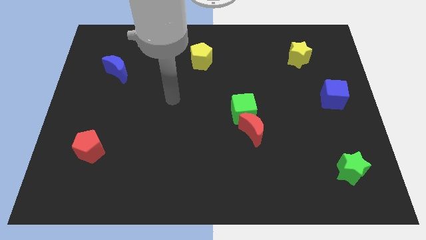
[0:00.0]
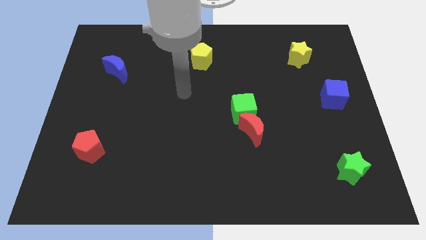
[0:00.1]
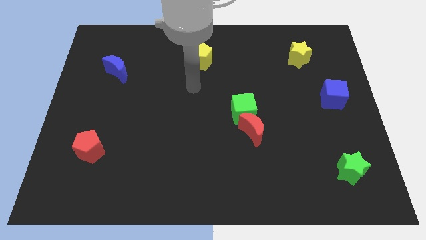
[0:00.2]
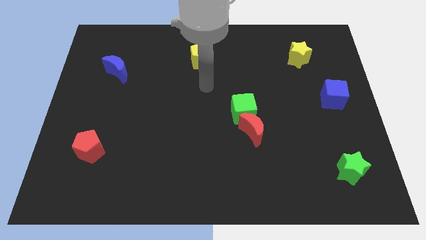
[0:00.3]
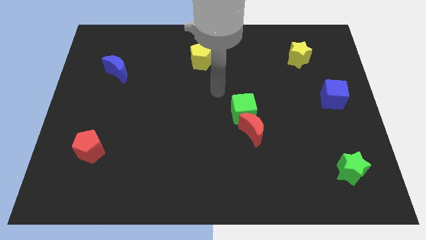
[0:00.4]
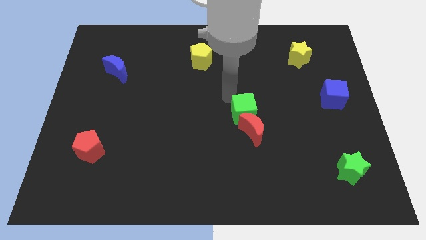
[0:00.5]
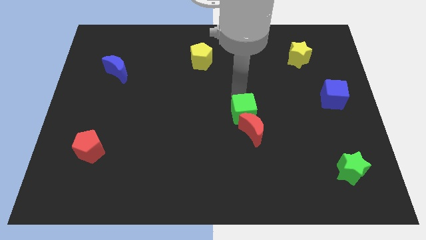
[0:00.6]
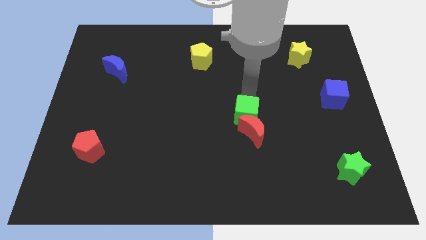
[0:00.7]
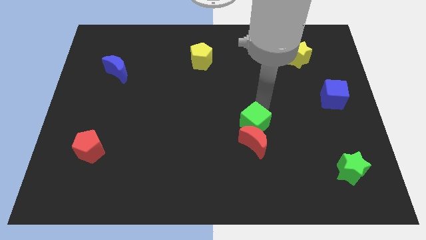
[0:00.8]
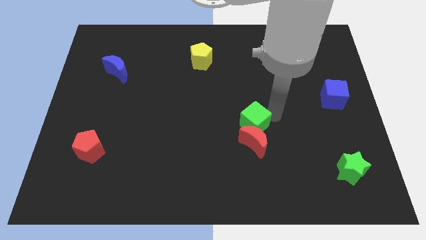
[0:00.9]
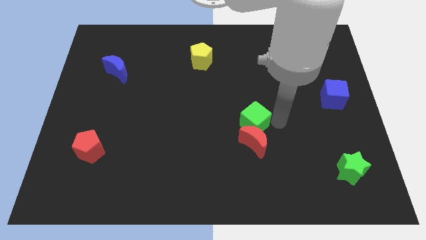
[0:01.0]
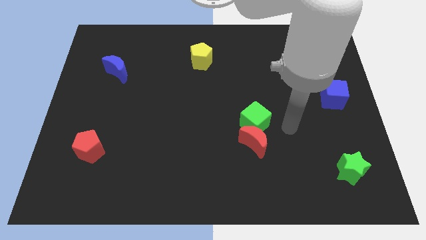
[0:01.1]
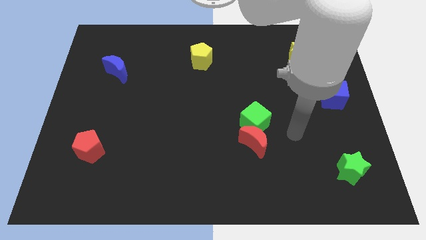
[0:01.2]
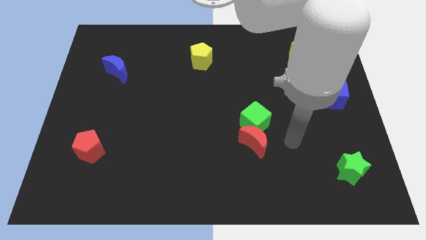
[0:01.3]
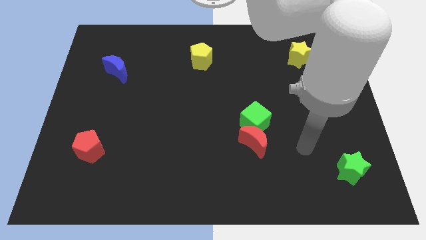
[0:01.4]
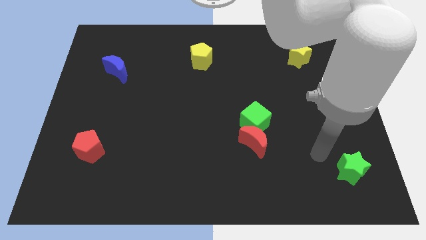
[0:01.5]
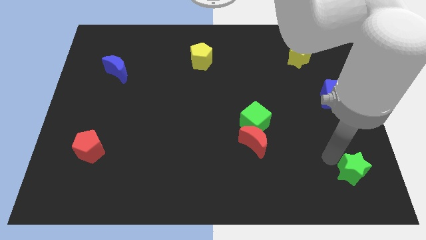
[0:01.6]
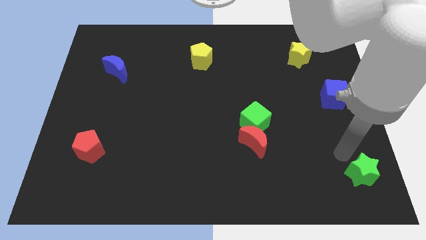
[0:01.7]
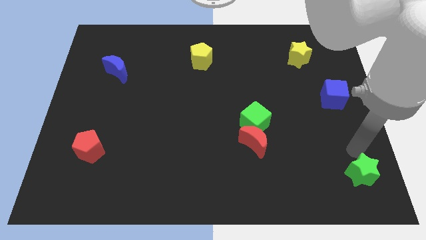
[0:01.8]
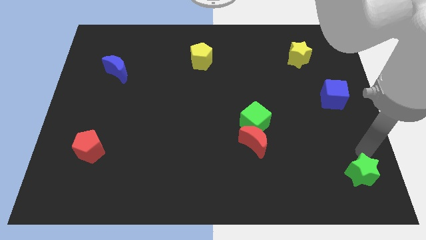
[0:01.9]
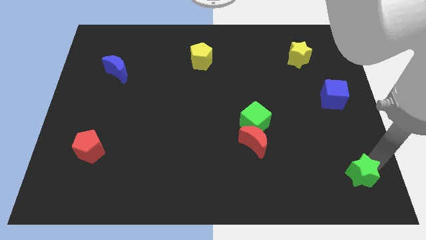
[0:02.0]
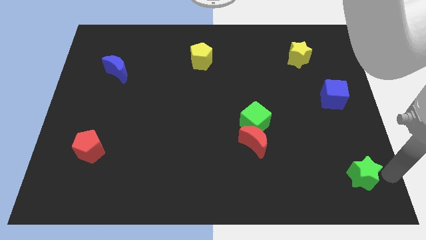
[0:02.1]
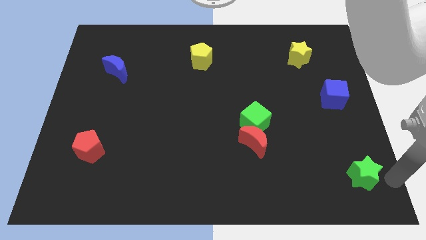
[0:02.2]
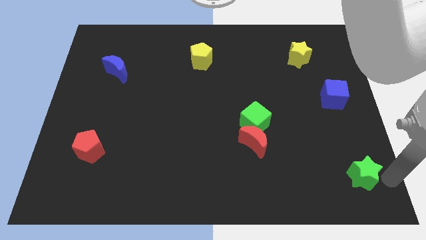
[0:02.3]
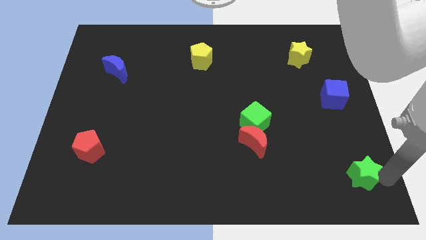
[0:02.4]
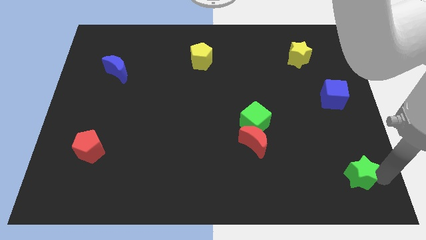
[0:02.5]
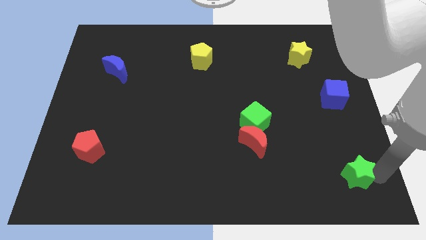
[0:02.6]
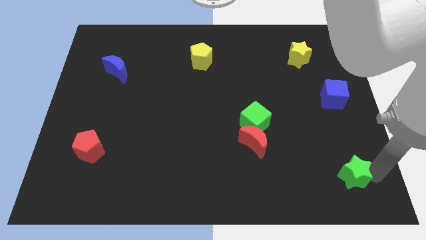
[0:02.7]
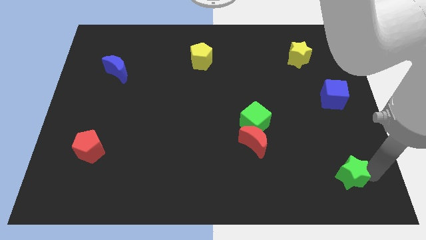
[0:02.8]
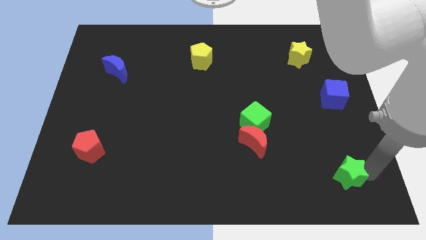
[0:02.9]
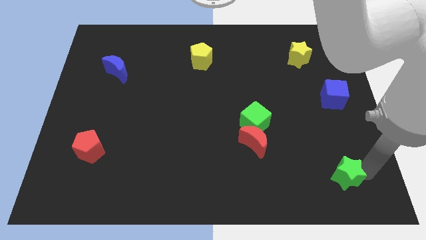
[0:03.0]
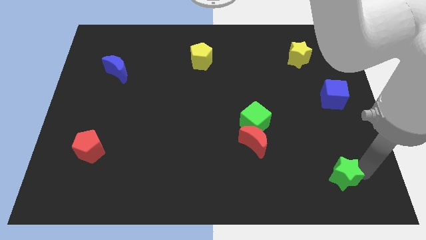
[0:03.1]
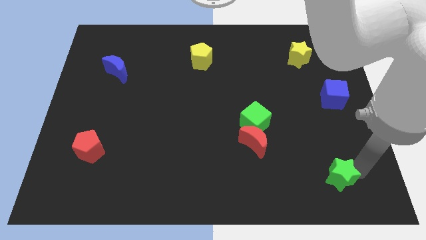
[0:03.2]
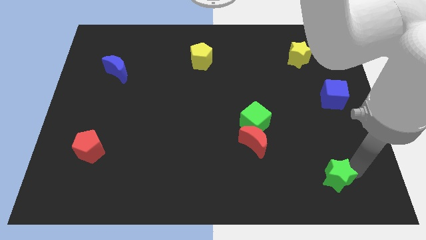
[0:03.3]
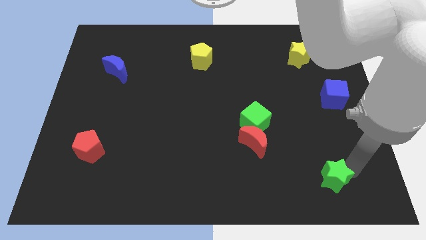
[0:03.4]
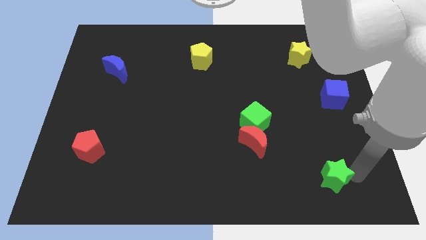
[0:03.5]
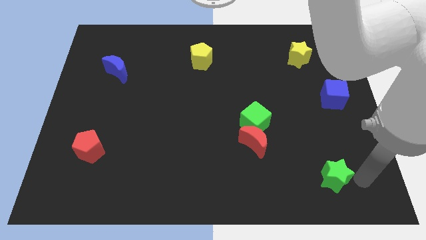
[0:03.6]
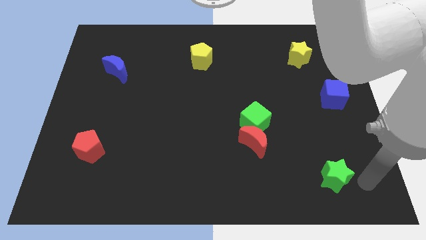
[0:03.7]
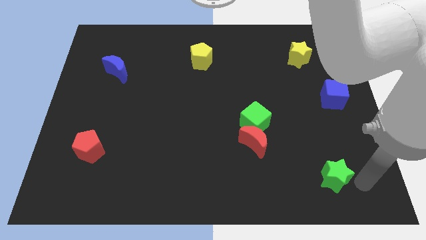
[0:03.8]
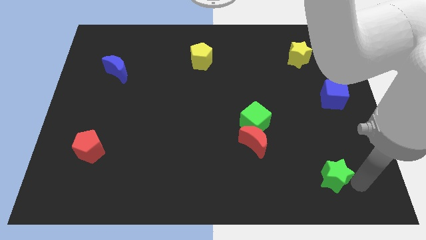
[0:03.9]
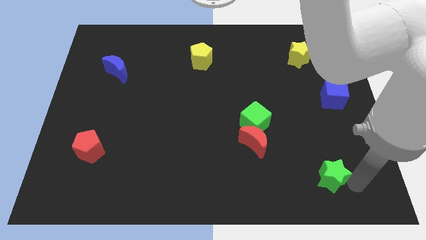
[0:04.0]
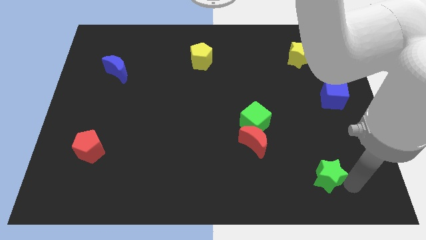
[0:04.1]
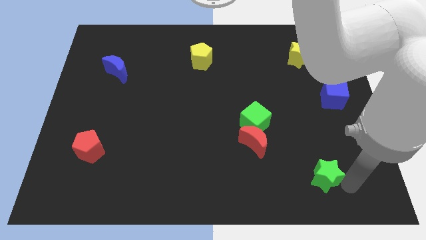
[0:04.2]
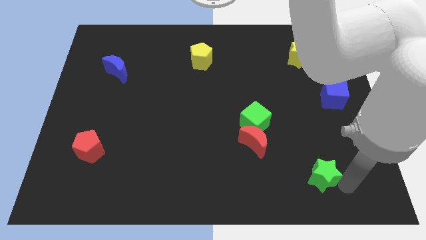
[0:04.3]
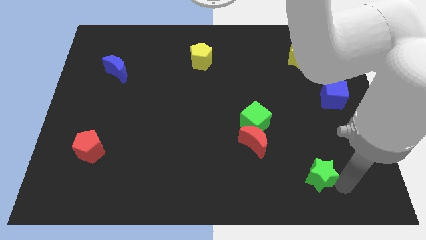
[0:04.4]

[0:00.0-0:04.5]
push the green star slightly left

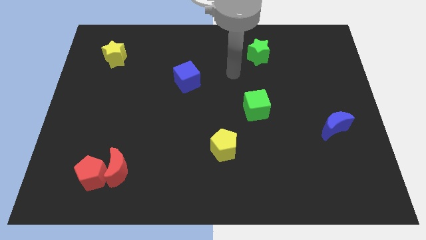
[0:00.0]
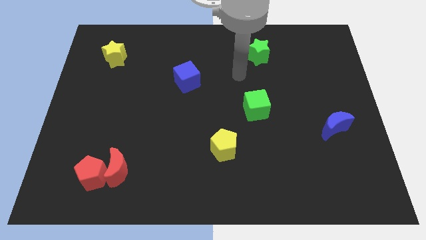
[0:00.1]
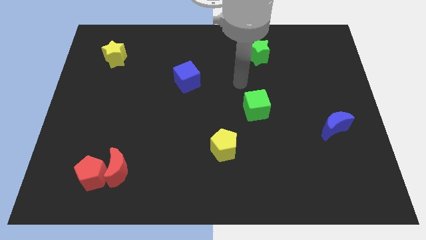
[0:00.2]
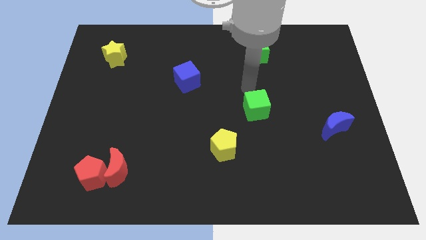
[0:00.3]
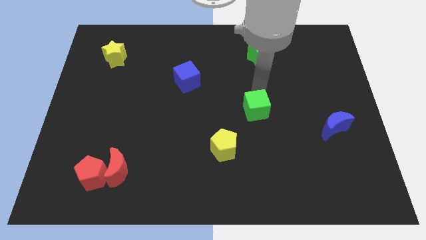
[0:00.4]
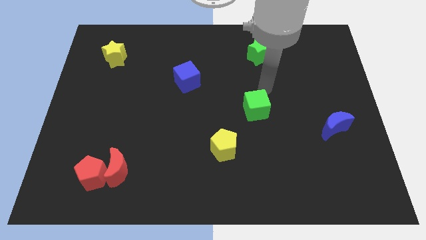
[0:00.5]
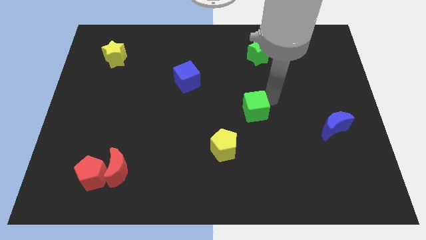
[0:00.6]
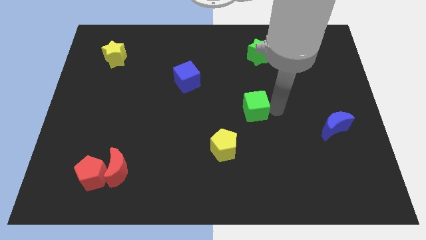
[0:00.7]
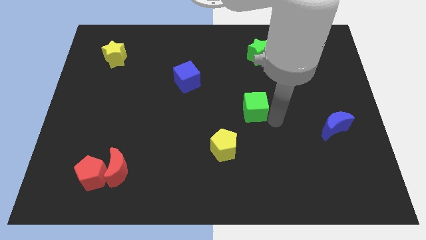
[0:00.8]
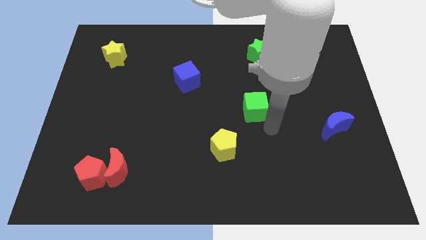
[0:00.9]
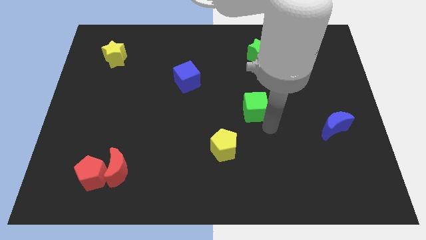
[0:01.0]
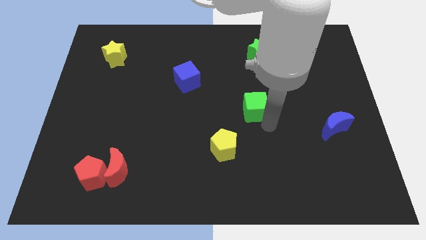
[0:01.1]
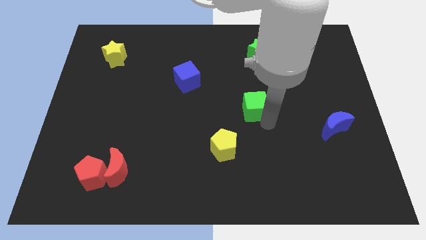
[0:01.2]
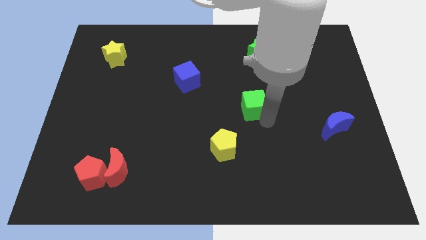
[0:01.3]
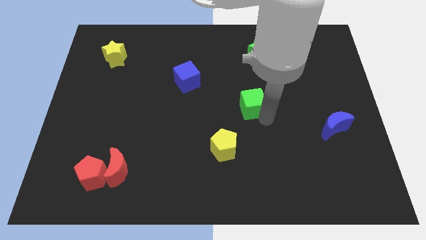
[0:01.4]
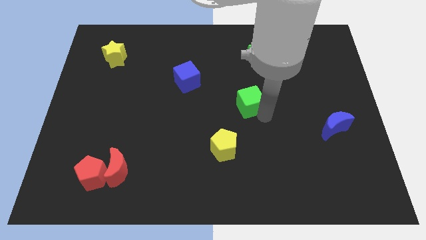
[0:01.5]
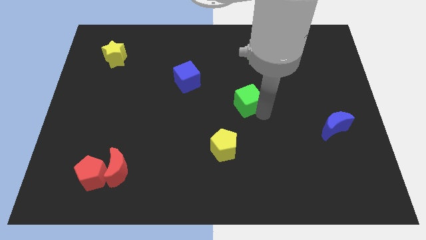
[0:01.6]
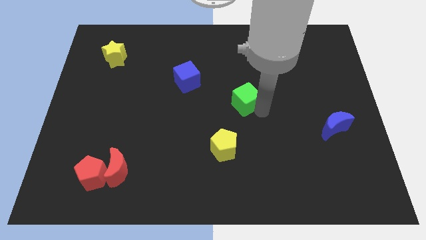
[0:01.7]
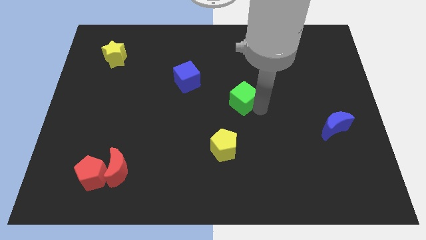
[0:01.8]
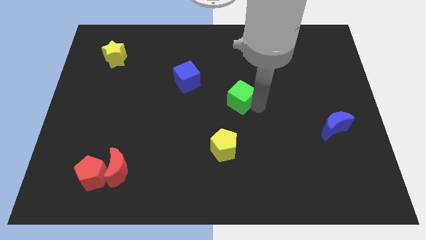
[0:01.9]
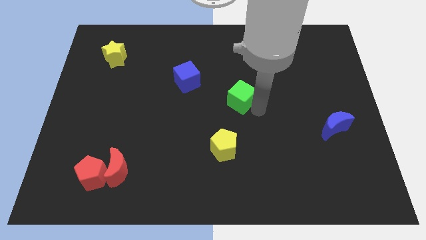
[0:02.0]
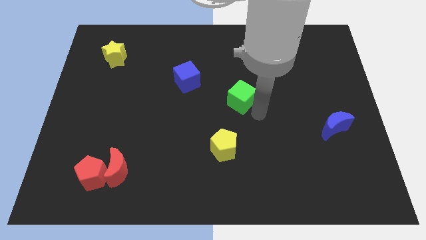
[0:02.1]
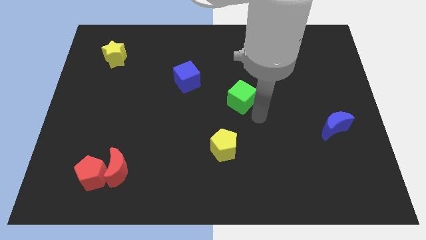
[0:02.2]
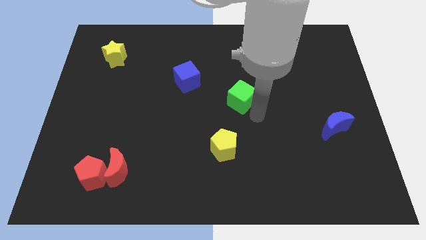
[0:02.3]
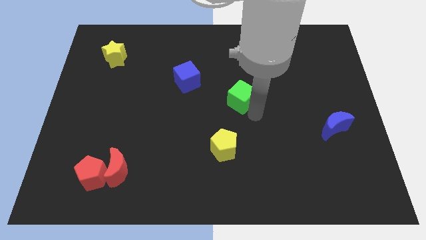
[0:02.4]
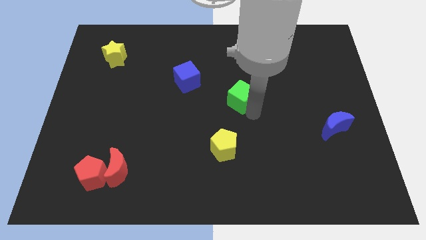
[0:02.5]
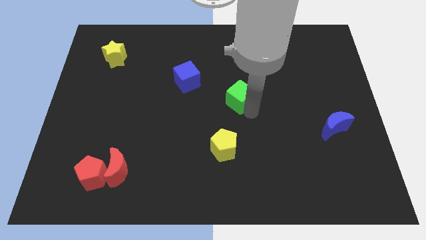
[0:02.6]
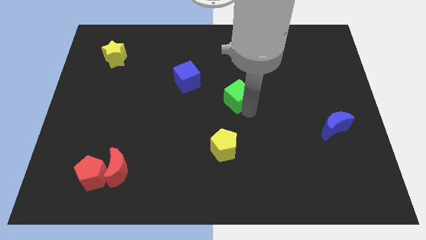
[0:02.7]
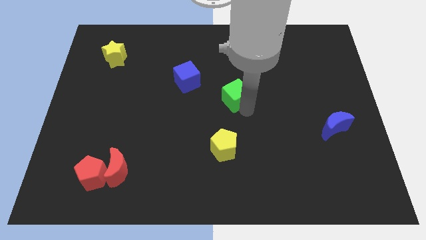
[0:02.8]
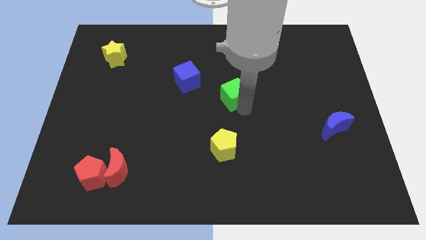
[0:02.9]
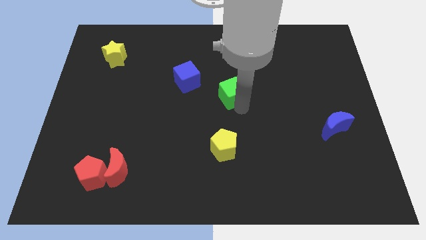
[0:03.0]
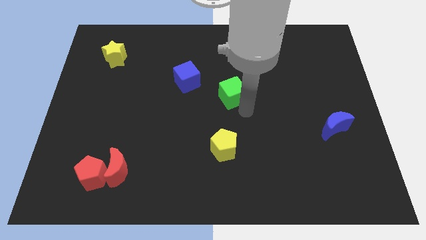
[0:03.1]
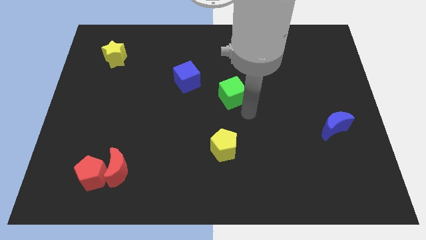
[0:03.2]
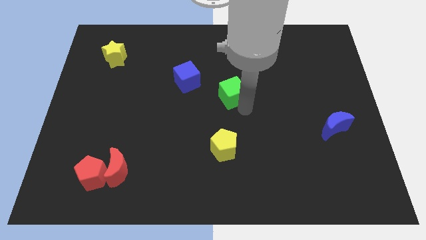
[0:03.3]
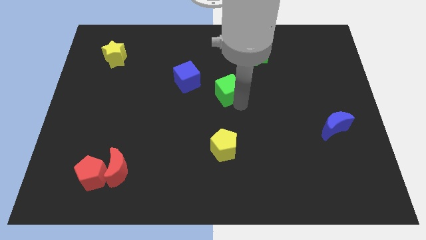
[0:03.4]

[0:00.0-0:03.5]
push the green cube somewhat up and to the left
